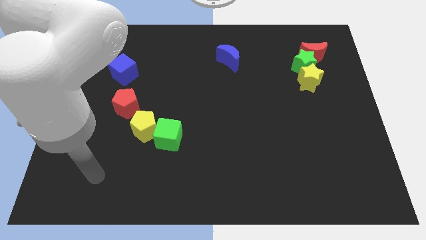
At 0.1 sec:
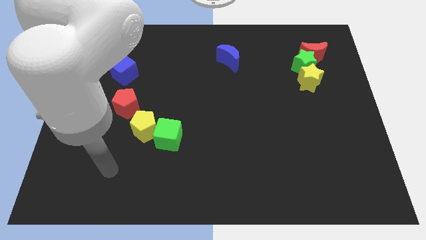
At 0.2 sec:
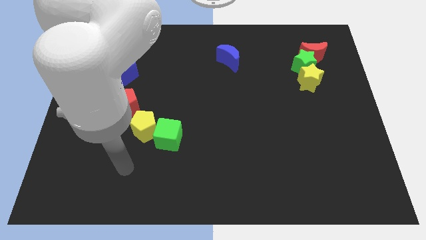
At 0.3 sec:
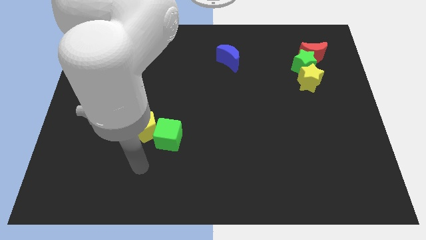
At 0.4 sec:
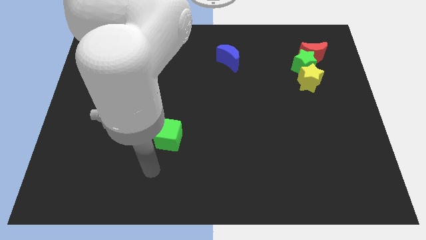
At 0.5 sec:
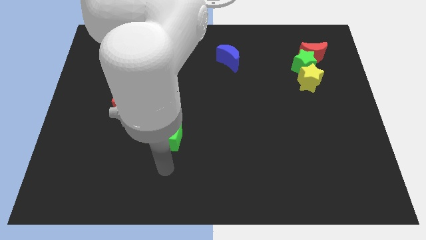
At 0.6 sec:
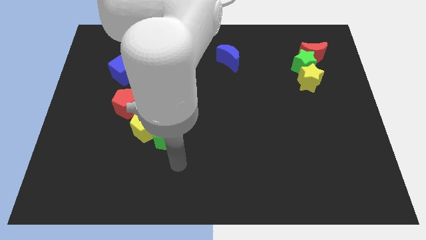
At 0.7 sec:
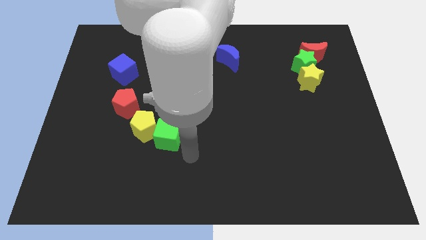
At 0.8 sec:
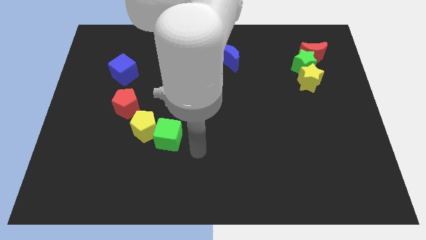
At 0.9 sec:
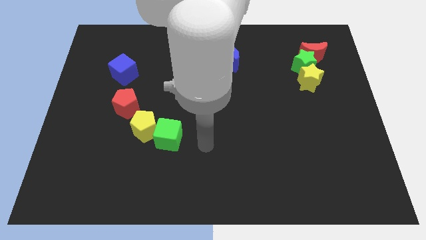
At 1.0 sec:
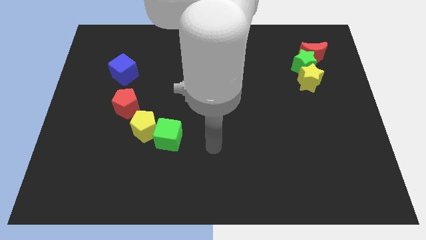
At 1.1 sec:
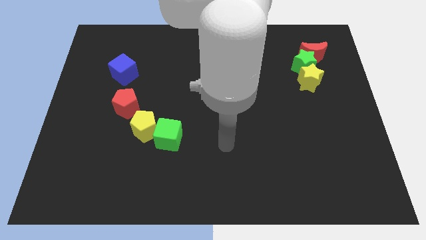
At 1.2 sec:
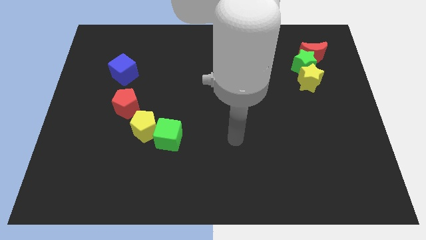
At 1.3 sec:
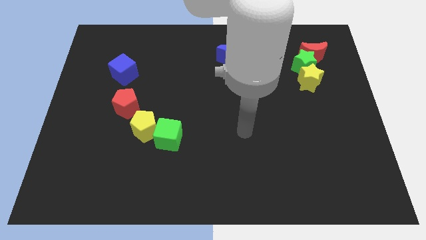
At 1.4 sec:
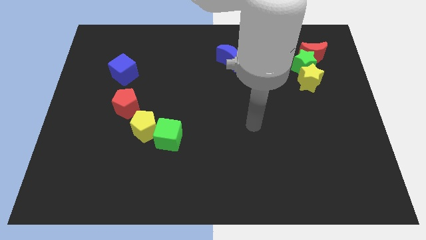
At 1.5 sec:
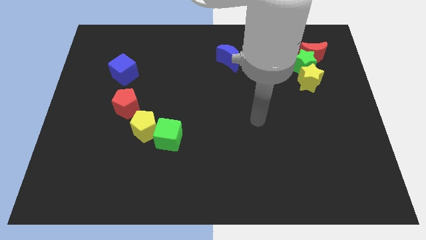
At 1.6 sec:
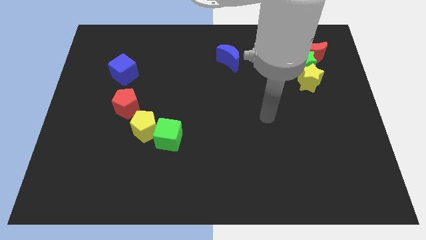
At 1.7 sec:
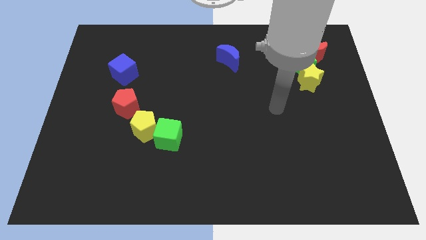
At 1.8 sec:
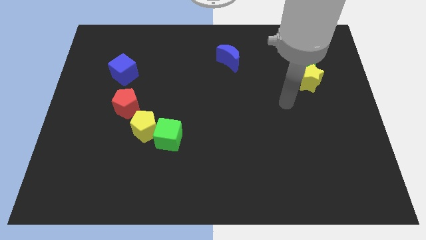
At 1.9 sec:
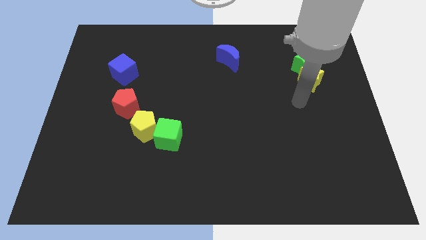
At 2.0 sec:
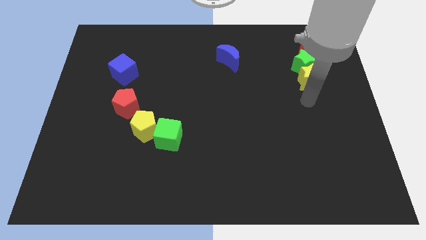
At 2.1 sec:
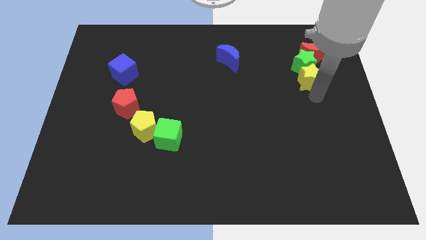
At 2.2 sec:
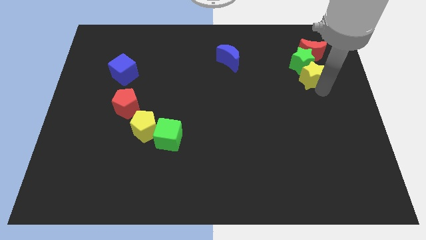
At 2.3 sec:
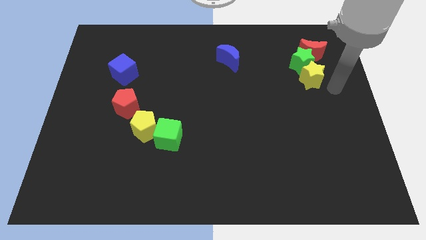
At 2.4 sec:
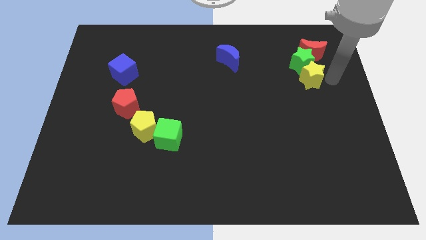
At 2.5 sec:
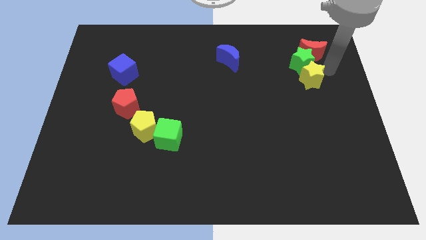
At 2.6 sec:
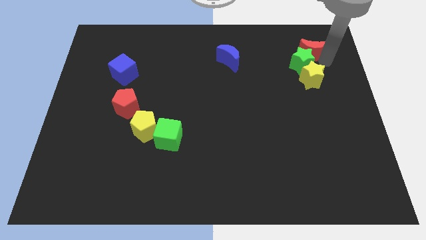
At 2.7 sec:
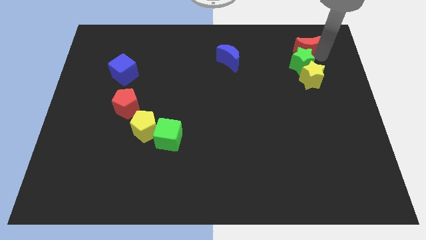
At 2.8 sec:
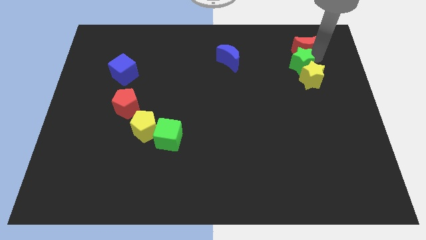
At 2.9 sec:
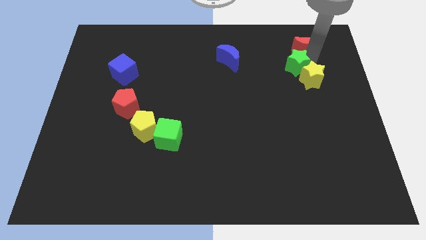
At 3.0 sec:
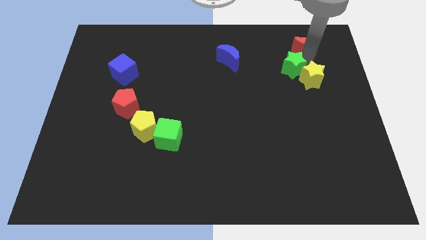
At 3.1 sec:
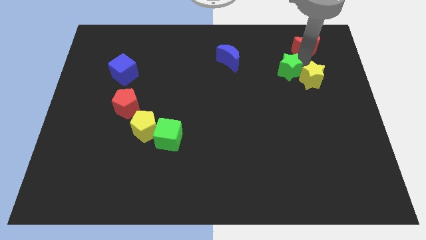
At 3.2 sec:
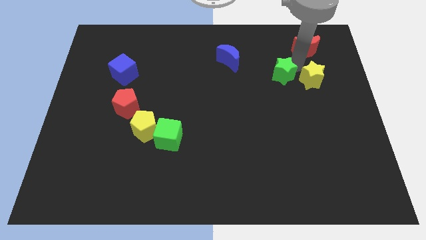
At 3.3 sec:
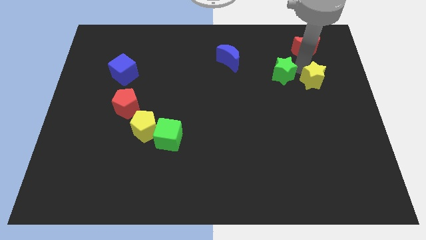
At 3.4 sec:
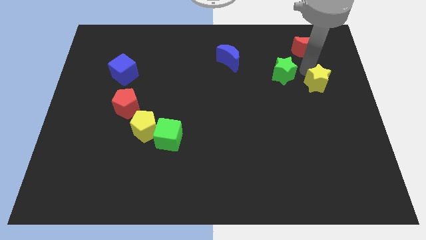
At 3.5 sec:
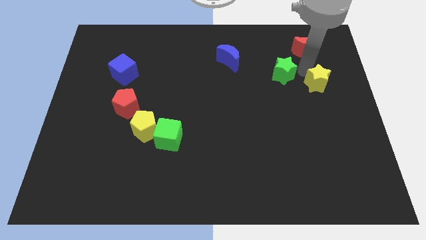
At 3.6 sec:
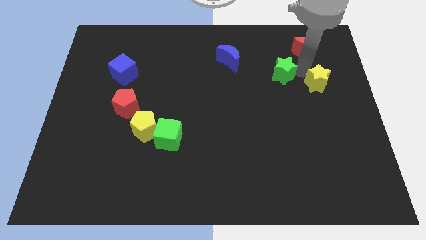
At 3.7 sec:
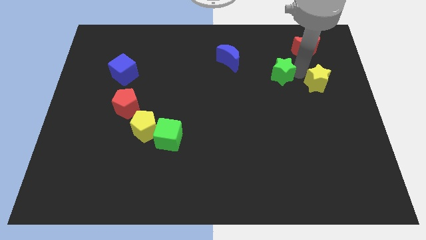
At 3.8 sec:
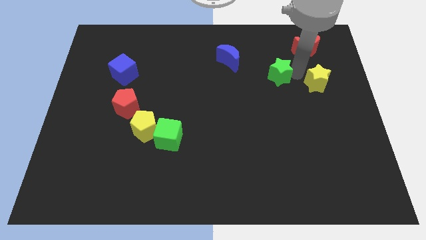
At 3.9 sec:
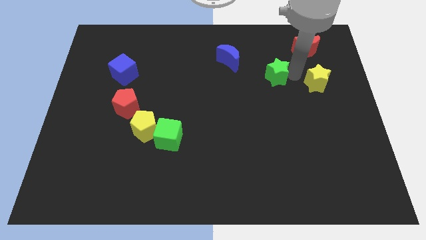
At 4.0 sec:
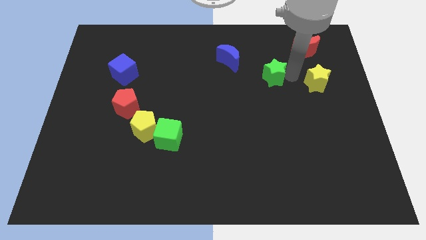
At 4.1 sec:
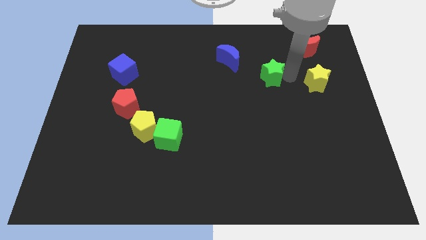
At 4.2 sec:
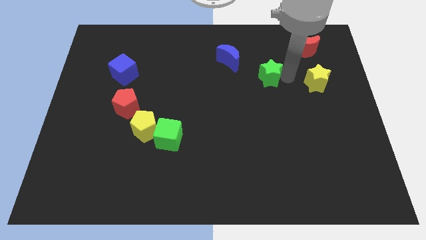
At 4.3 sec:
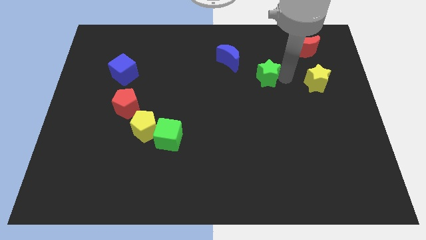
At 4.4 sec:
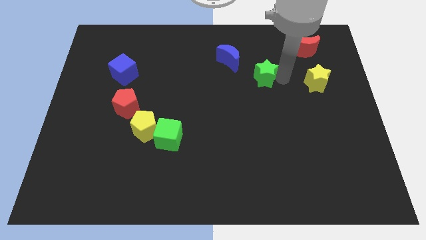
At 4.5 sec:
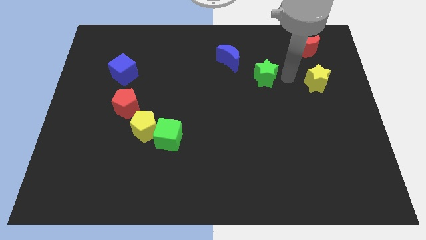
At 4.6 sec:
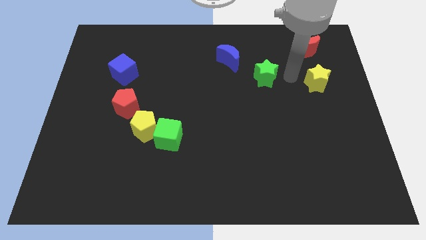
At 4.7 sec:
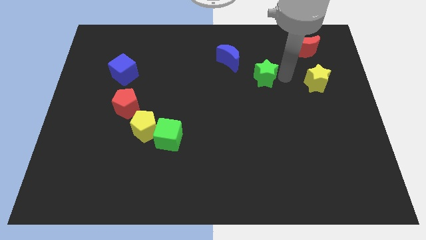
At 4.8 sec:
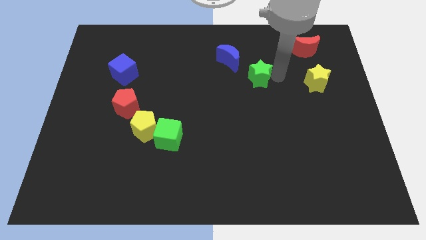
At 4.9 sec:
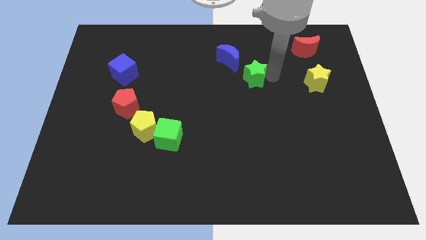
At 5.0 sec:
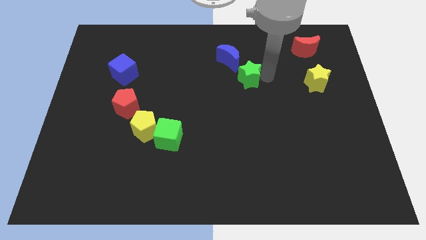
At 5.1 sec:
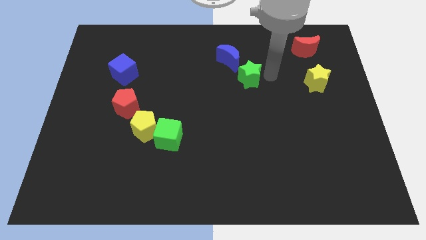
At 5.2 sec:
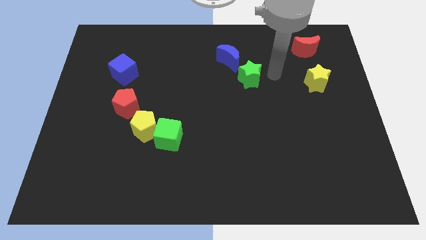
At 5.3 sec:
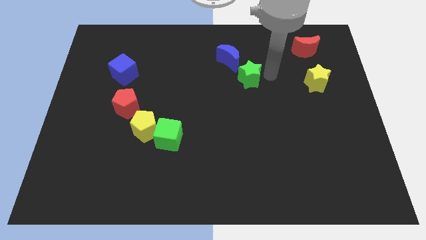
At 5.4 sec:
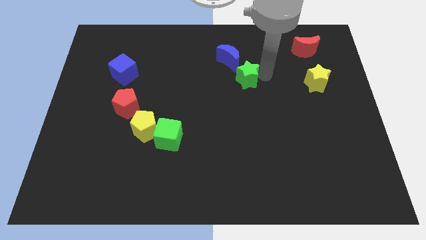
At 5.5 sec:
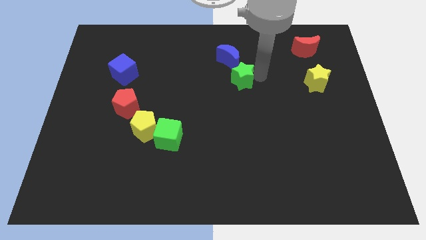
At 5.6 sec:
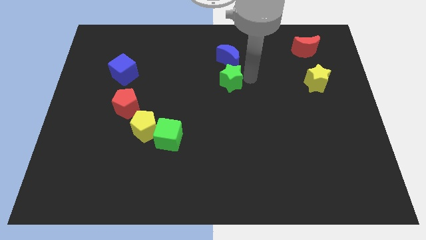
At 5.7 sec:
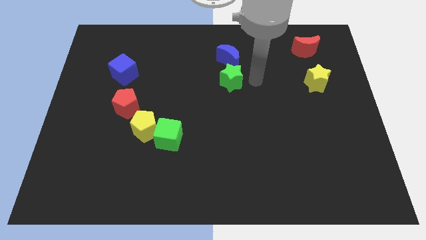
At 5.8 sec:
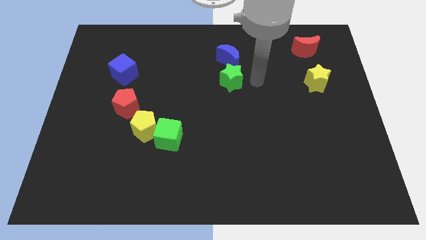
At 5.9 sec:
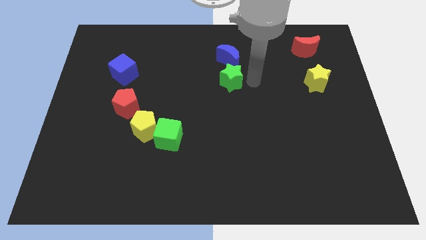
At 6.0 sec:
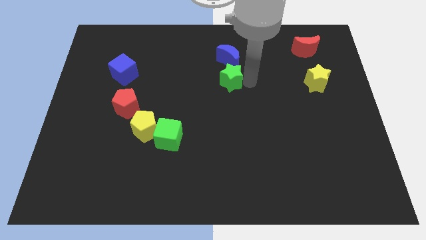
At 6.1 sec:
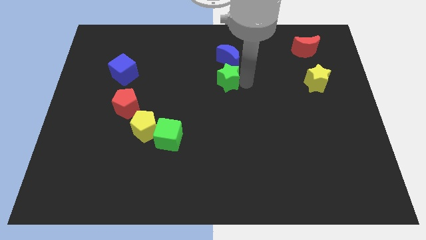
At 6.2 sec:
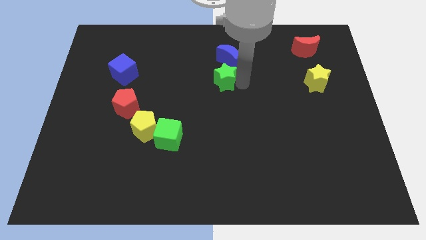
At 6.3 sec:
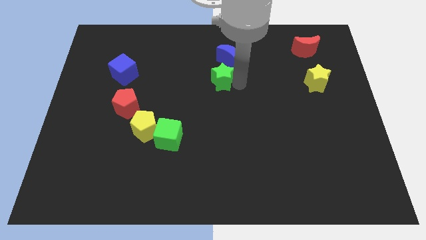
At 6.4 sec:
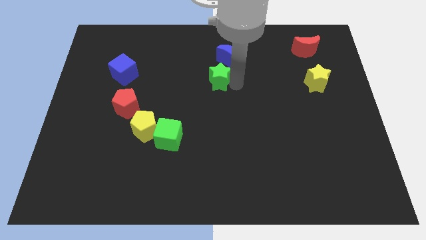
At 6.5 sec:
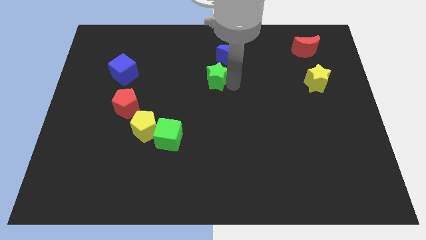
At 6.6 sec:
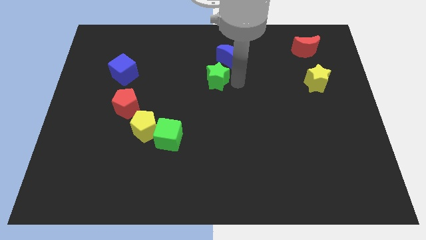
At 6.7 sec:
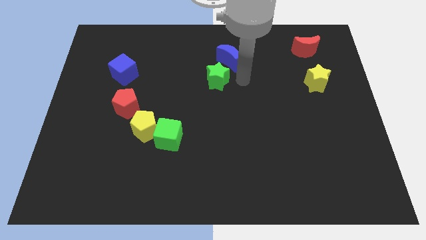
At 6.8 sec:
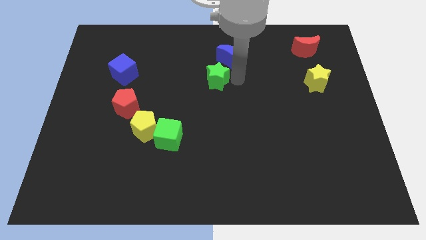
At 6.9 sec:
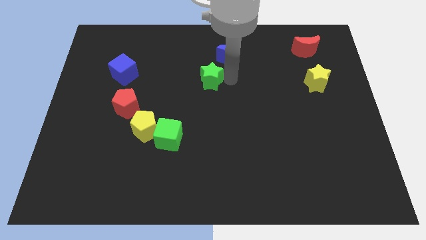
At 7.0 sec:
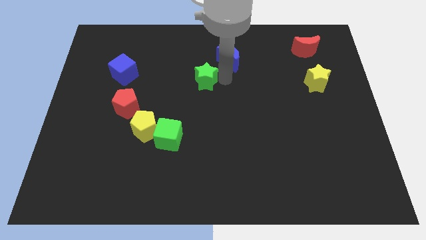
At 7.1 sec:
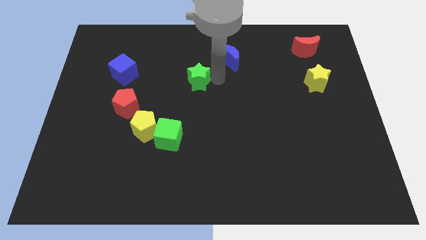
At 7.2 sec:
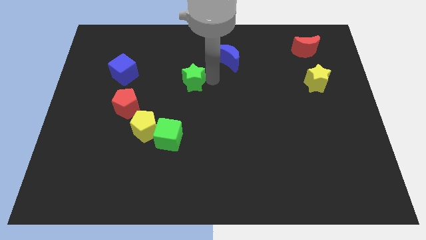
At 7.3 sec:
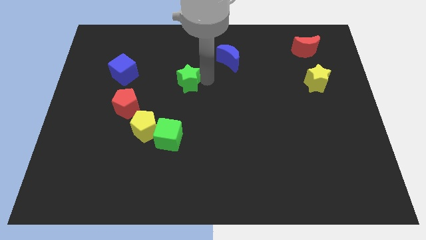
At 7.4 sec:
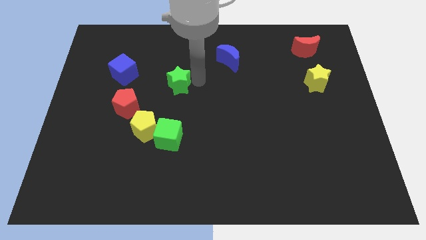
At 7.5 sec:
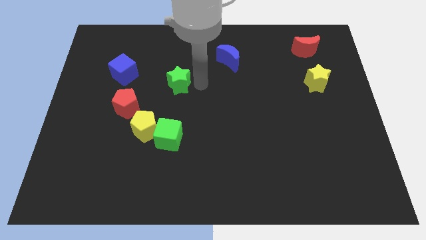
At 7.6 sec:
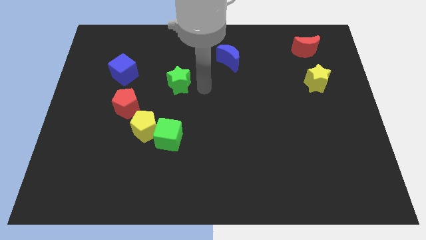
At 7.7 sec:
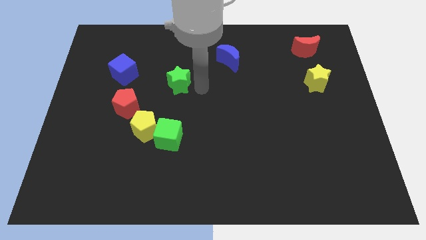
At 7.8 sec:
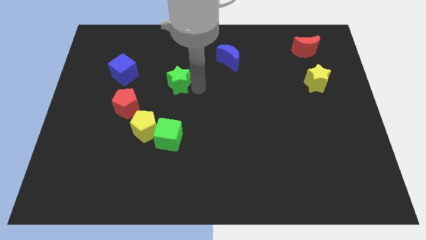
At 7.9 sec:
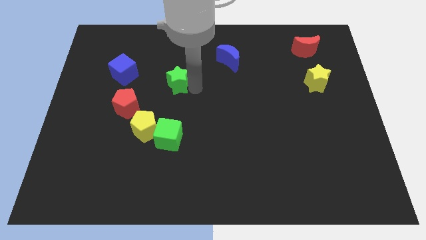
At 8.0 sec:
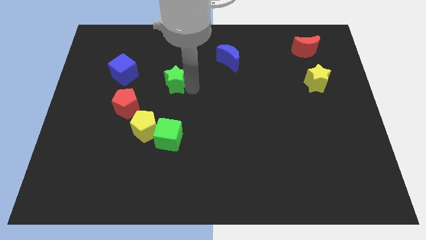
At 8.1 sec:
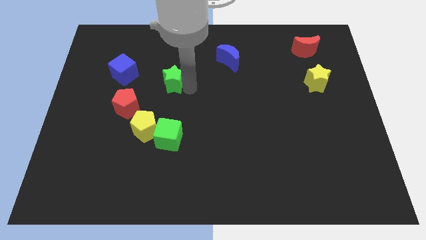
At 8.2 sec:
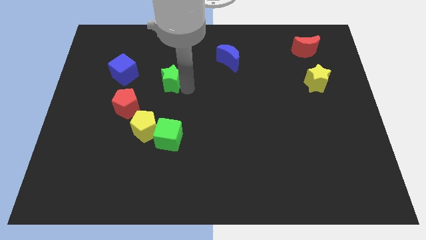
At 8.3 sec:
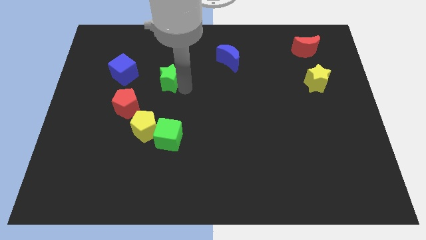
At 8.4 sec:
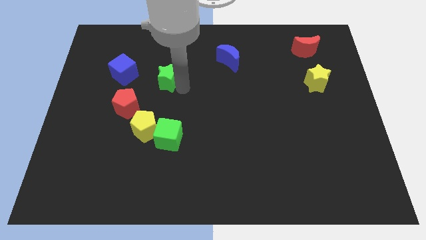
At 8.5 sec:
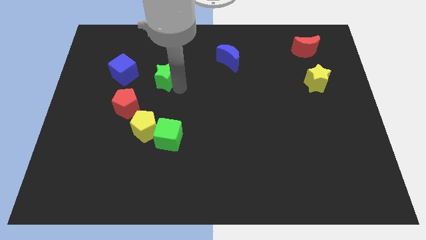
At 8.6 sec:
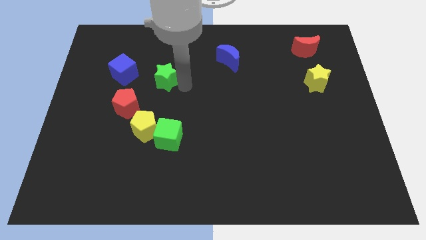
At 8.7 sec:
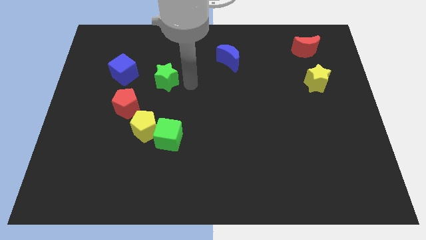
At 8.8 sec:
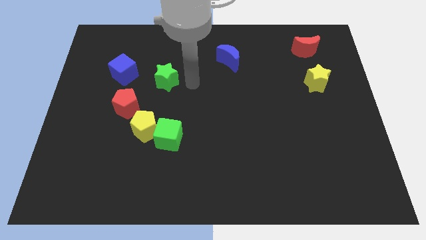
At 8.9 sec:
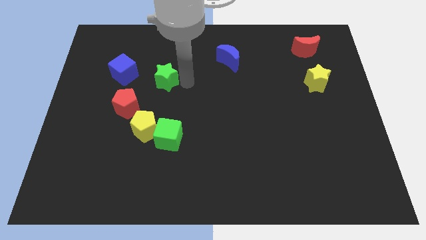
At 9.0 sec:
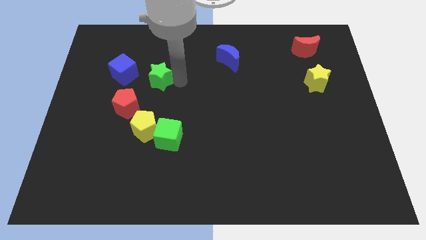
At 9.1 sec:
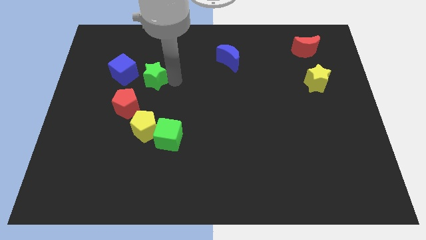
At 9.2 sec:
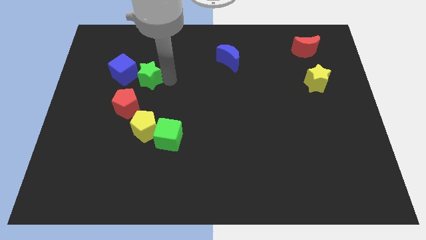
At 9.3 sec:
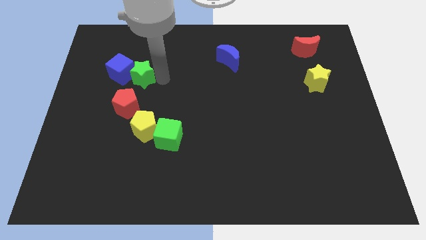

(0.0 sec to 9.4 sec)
move the green star to the blue cube
